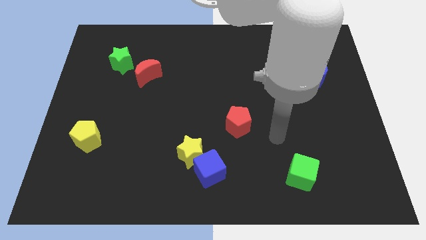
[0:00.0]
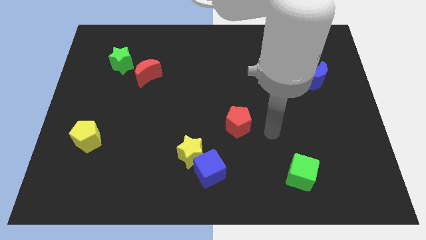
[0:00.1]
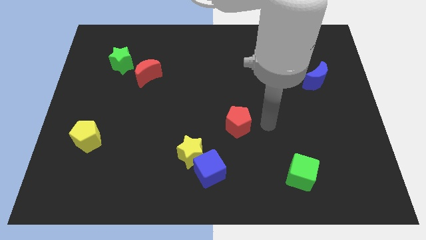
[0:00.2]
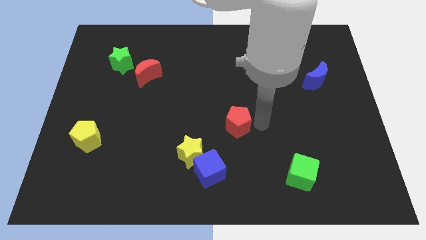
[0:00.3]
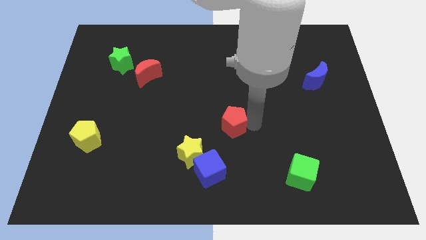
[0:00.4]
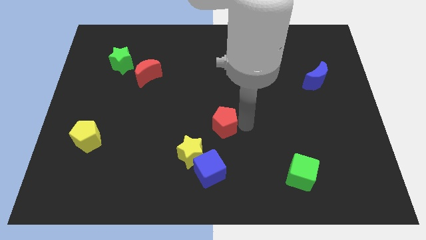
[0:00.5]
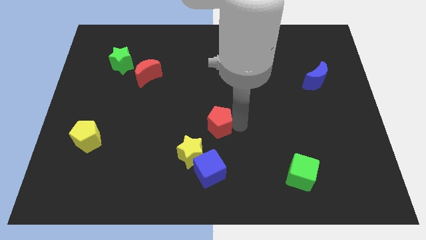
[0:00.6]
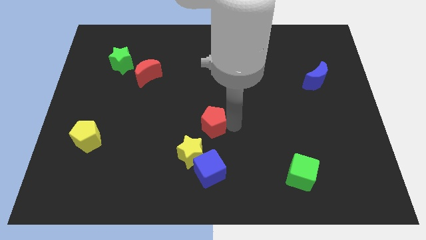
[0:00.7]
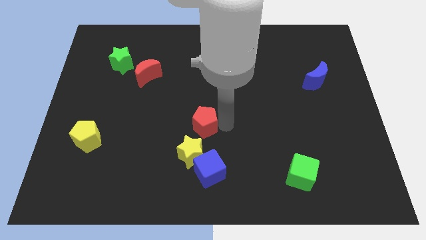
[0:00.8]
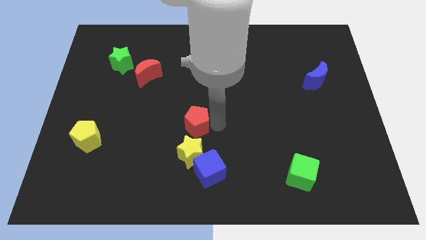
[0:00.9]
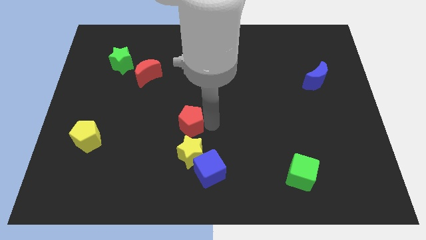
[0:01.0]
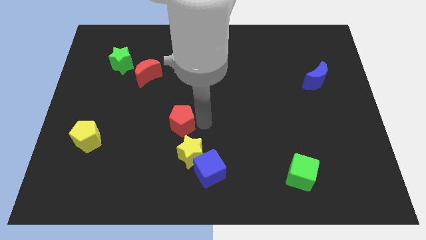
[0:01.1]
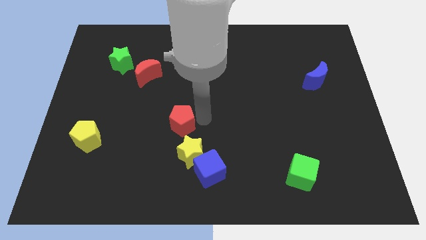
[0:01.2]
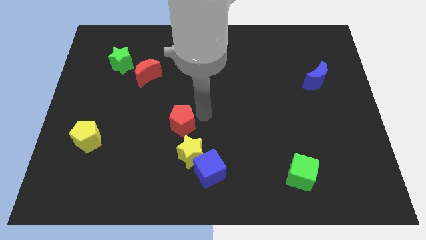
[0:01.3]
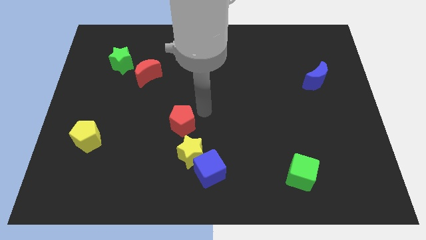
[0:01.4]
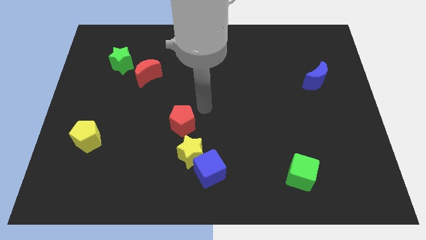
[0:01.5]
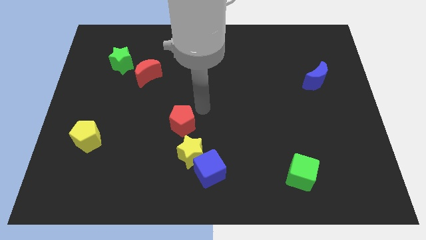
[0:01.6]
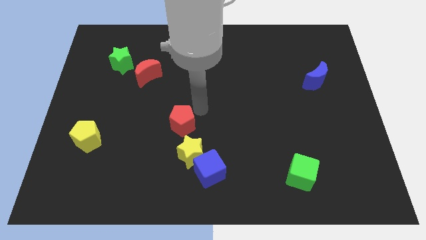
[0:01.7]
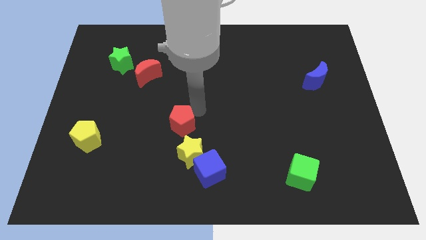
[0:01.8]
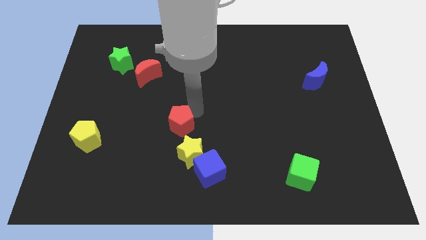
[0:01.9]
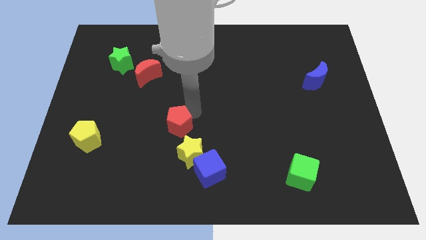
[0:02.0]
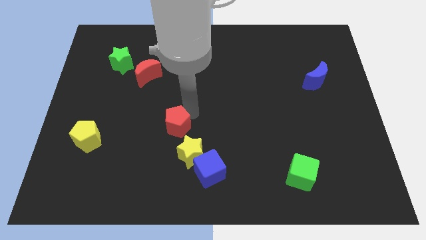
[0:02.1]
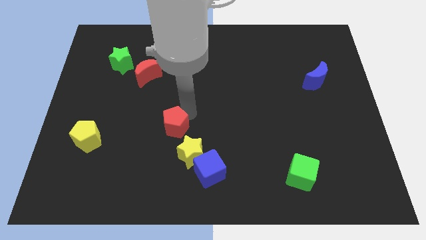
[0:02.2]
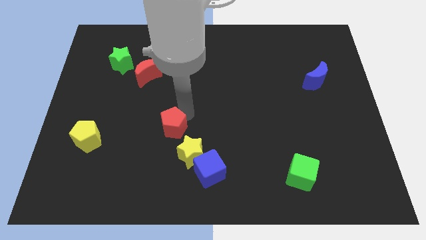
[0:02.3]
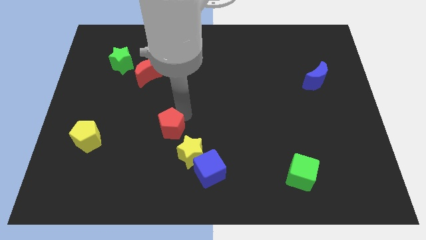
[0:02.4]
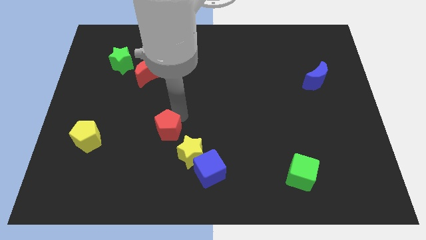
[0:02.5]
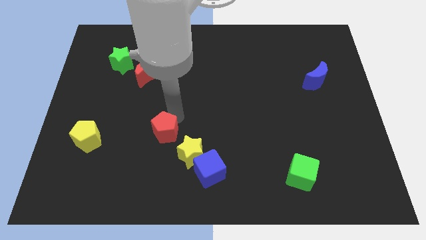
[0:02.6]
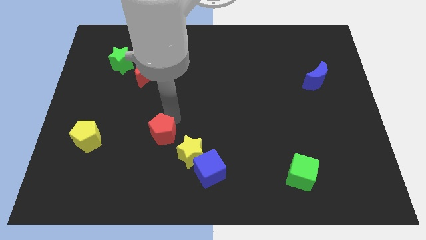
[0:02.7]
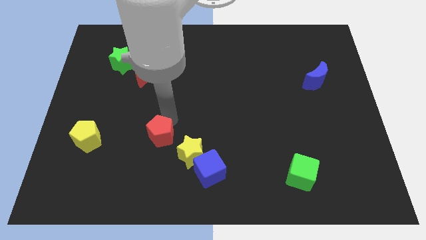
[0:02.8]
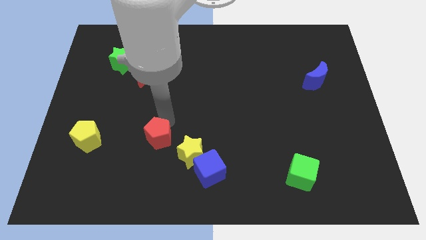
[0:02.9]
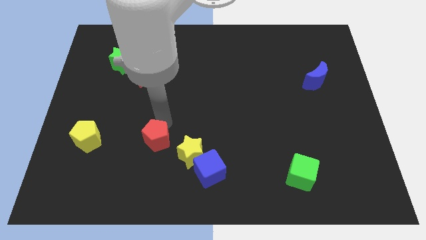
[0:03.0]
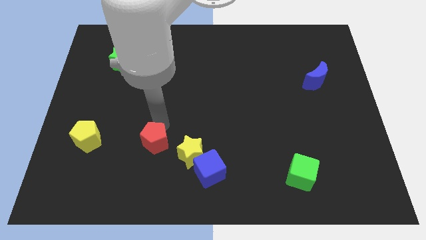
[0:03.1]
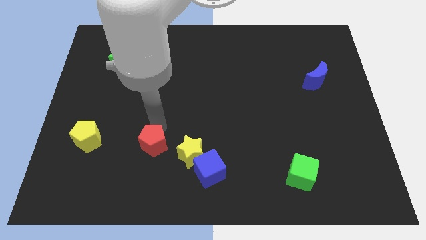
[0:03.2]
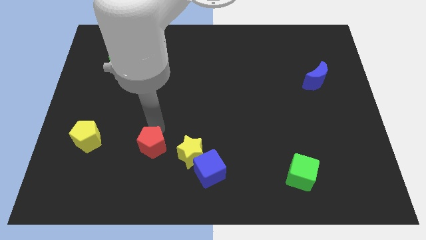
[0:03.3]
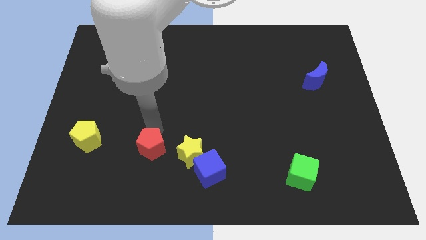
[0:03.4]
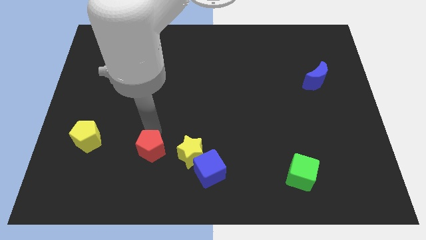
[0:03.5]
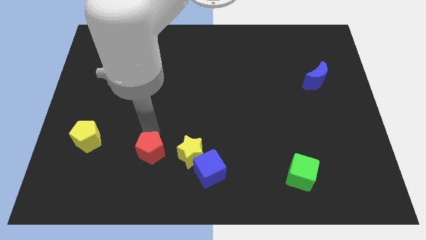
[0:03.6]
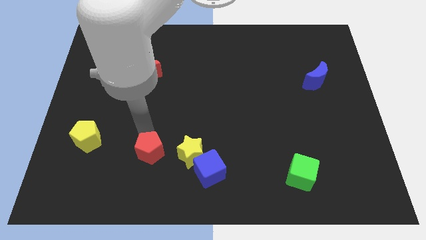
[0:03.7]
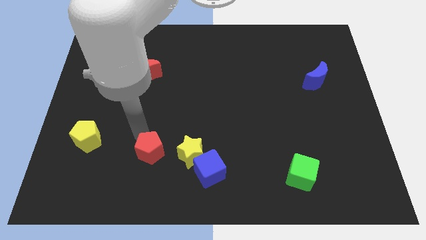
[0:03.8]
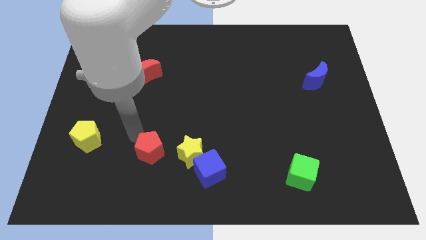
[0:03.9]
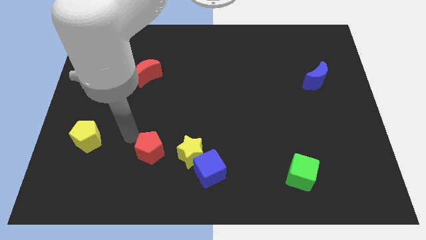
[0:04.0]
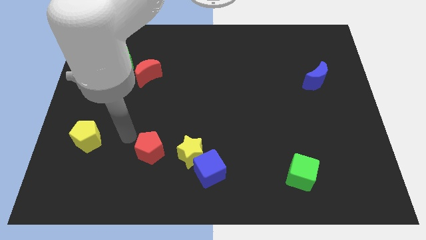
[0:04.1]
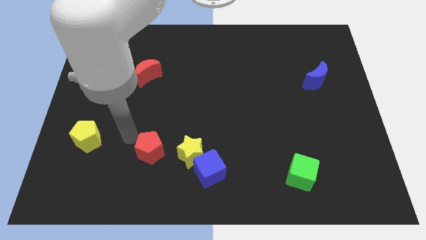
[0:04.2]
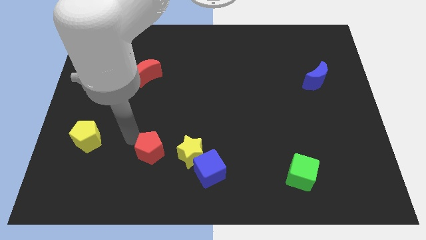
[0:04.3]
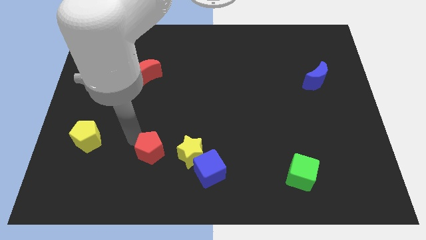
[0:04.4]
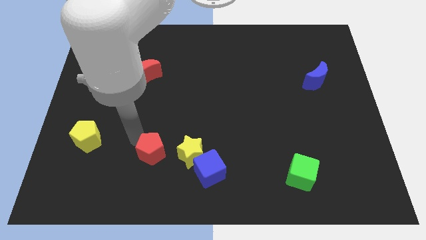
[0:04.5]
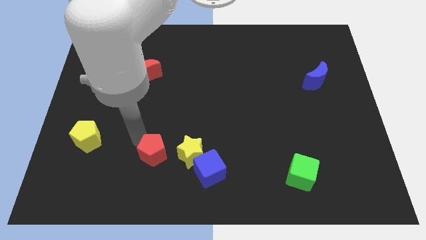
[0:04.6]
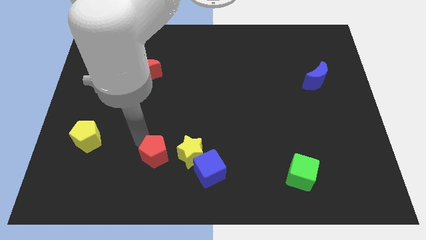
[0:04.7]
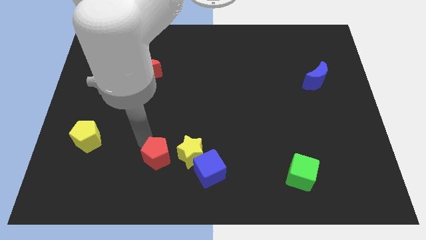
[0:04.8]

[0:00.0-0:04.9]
put the red pentagon to the bottom left of the yellow star

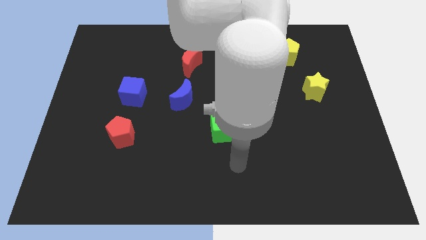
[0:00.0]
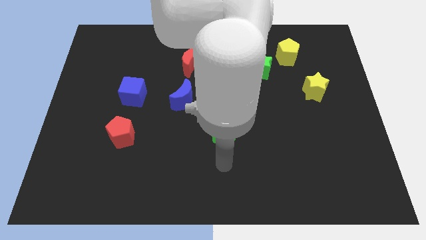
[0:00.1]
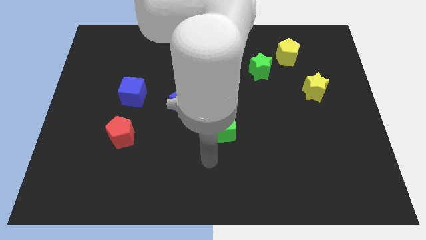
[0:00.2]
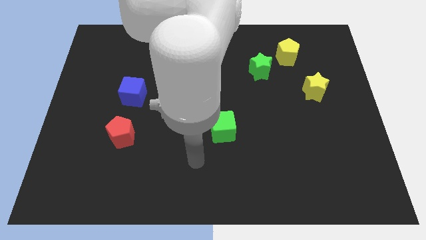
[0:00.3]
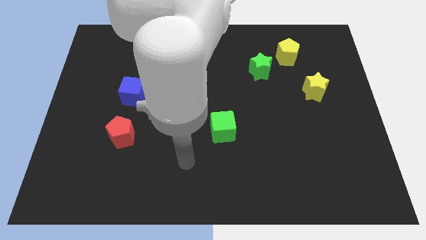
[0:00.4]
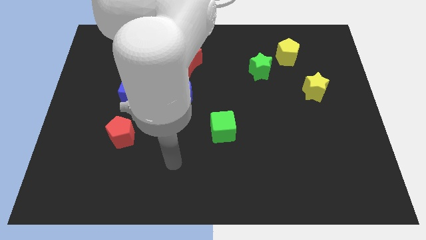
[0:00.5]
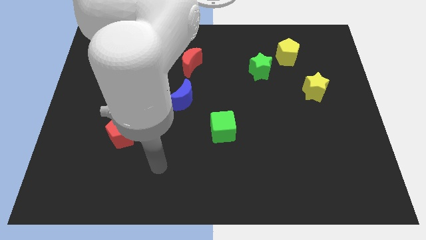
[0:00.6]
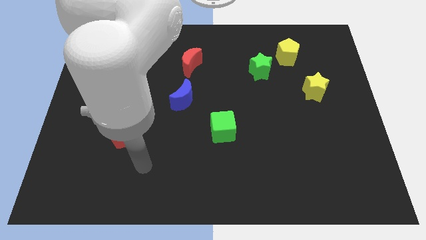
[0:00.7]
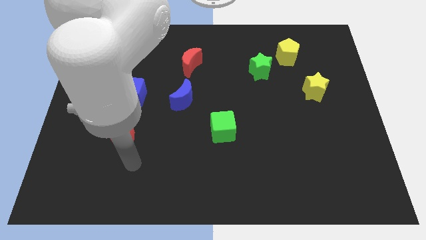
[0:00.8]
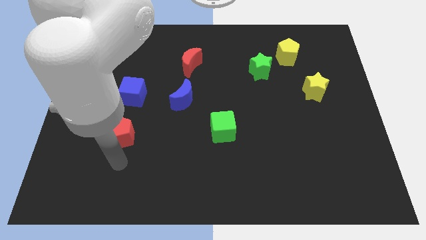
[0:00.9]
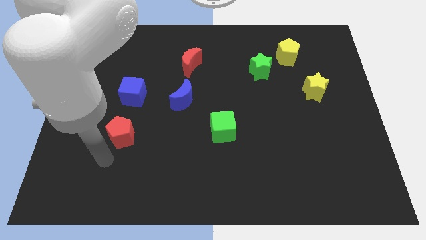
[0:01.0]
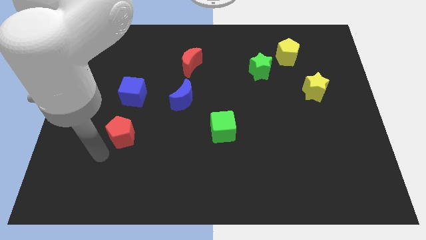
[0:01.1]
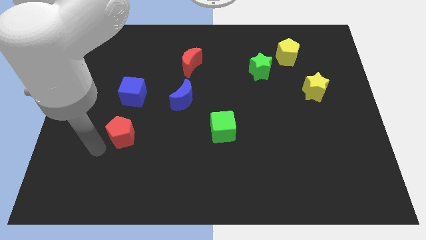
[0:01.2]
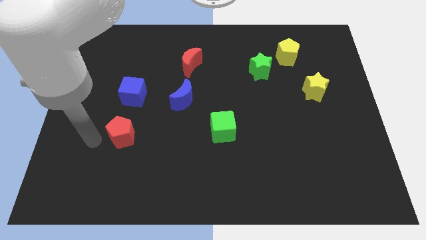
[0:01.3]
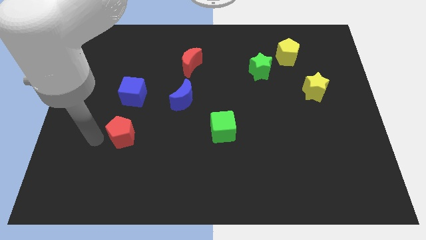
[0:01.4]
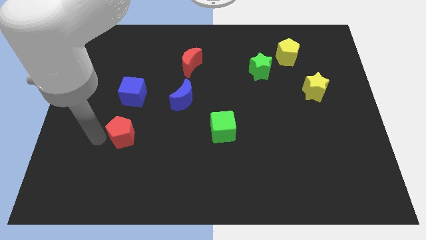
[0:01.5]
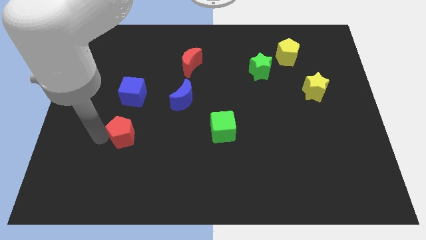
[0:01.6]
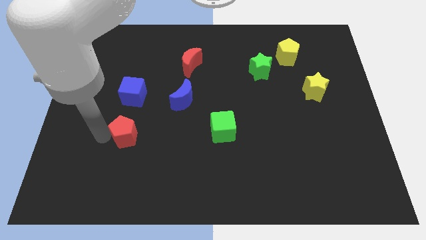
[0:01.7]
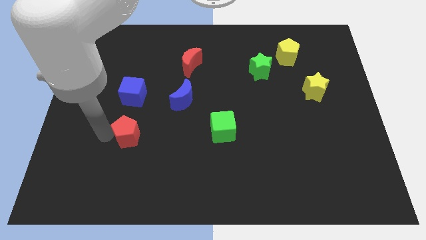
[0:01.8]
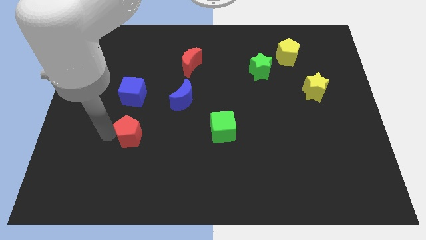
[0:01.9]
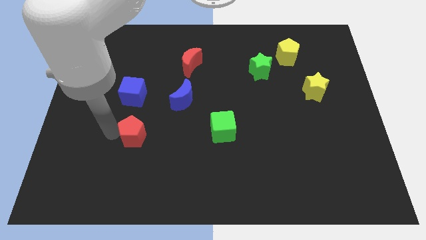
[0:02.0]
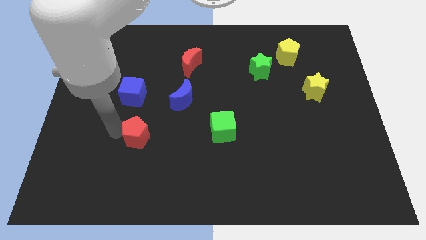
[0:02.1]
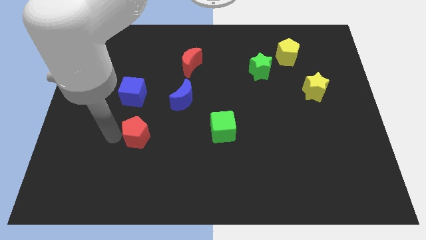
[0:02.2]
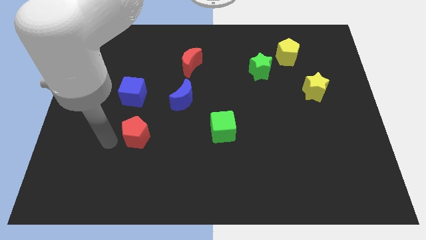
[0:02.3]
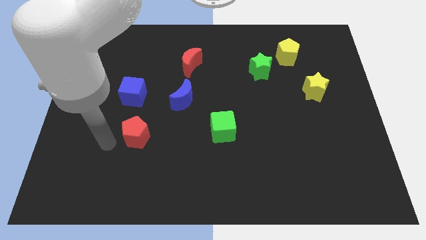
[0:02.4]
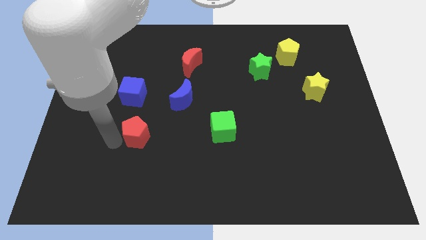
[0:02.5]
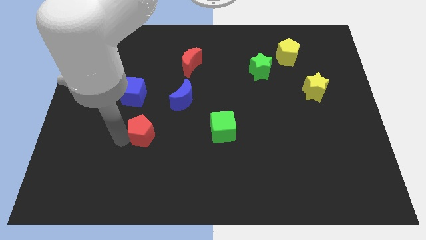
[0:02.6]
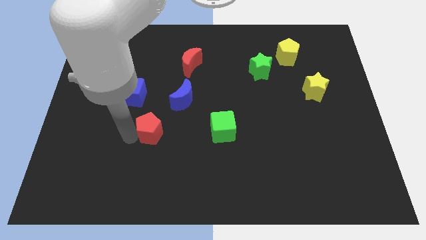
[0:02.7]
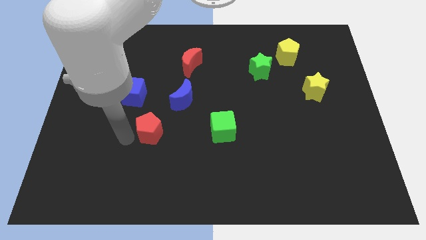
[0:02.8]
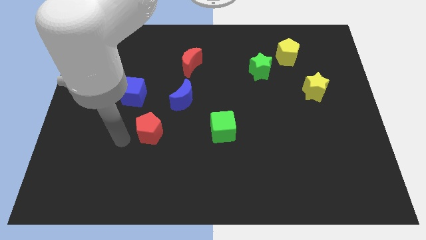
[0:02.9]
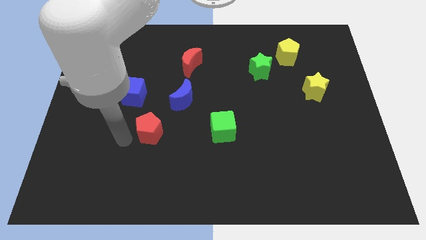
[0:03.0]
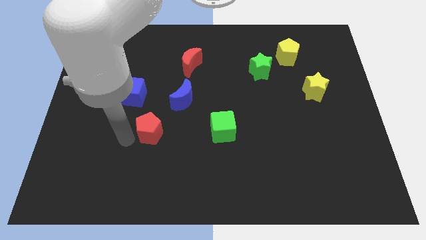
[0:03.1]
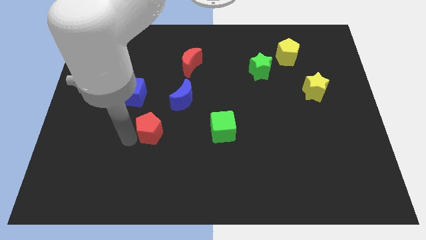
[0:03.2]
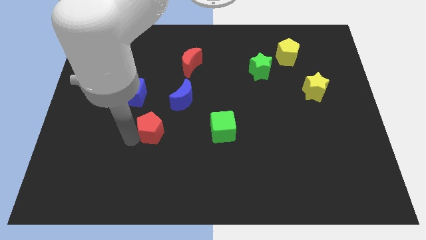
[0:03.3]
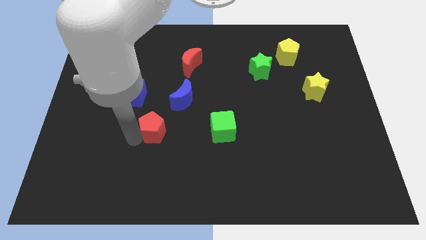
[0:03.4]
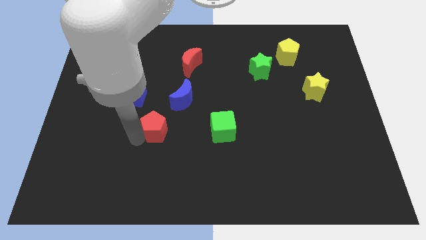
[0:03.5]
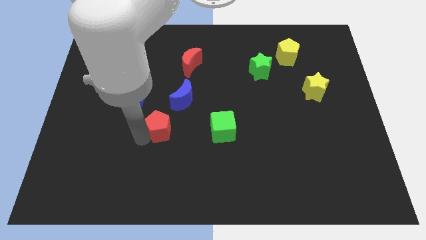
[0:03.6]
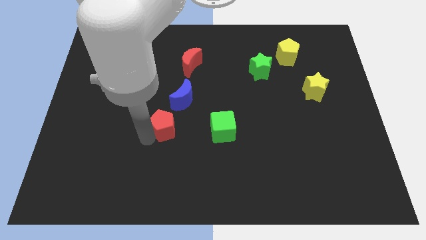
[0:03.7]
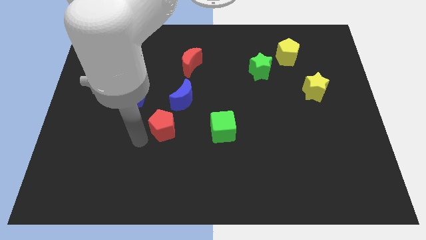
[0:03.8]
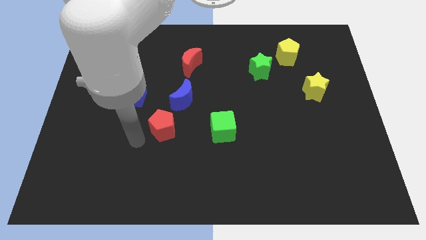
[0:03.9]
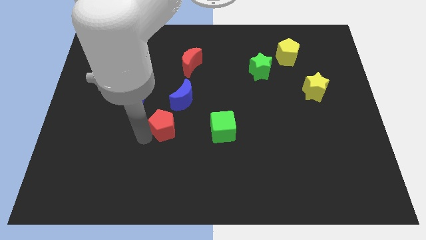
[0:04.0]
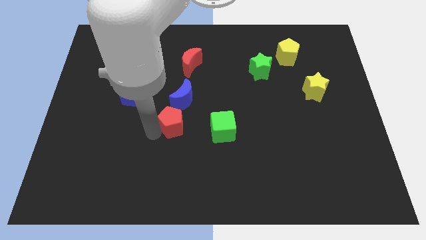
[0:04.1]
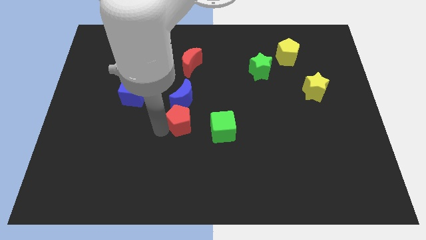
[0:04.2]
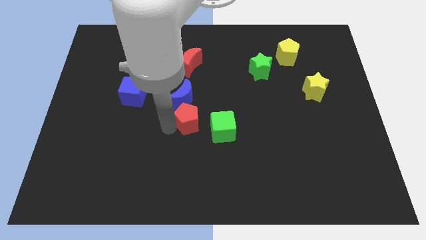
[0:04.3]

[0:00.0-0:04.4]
put the red pentagon diagonally up and to the left of the green cube
